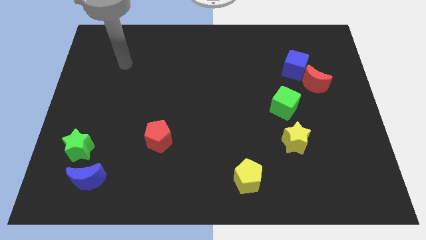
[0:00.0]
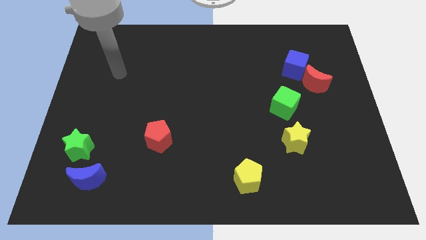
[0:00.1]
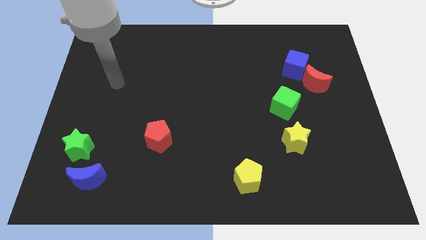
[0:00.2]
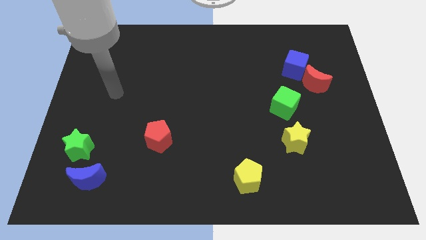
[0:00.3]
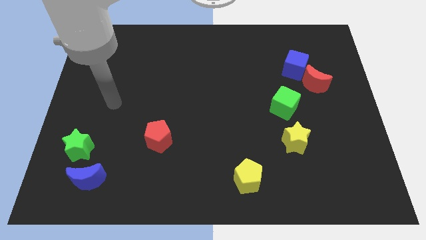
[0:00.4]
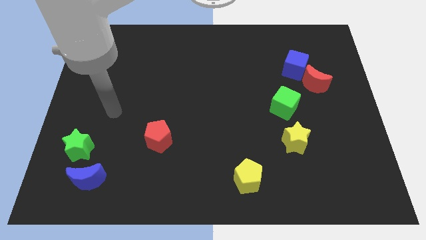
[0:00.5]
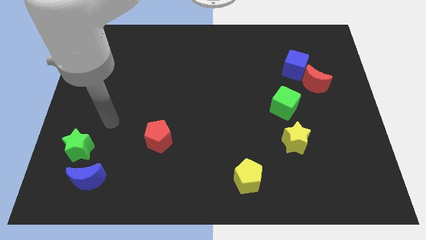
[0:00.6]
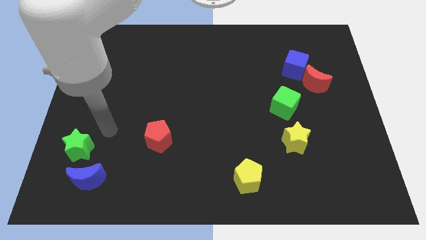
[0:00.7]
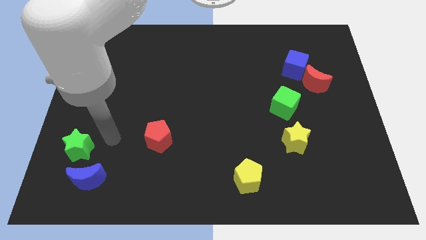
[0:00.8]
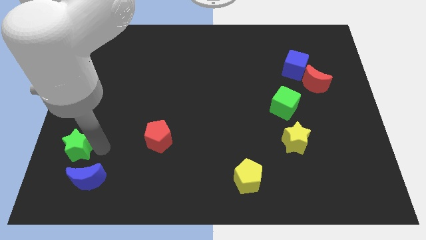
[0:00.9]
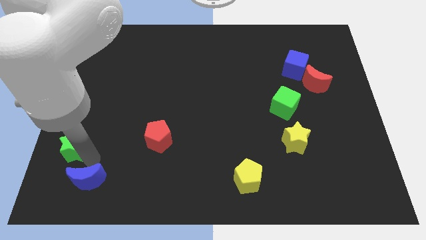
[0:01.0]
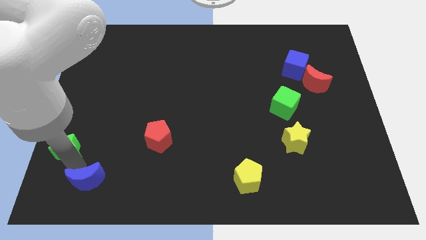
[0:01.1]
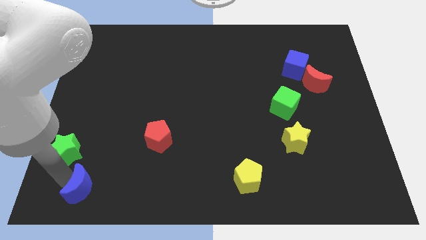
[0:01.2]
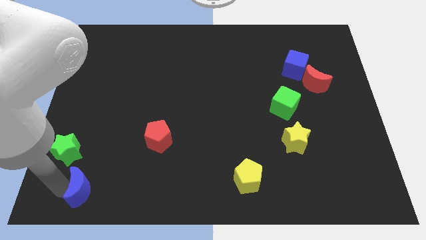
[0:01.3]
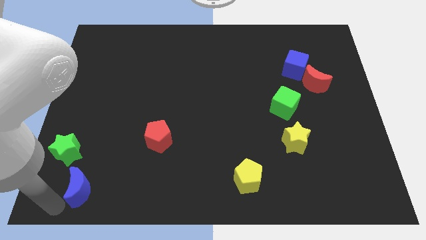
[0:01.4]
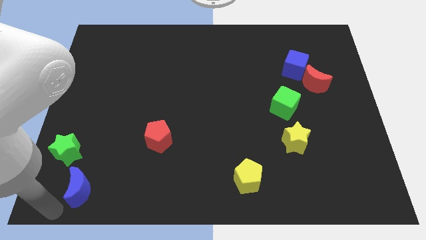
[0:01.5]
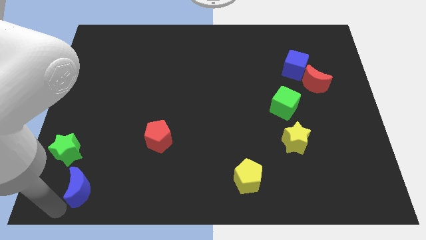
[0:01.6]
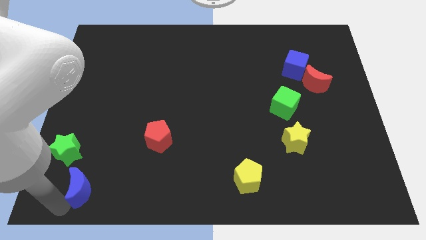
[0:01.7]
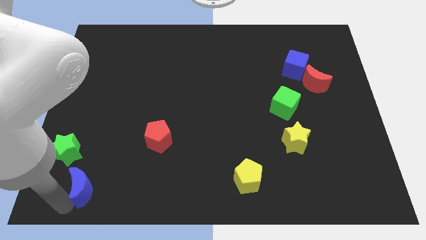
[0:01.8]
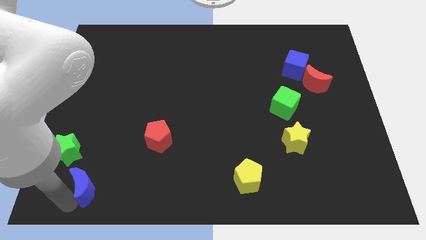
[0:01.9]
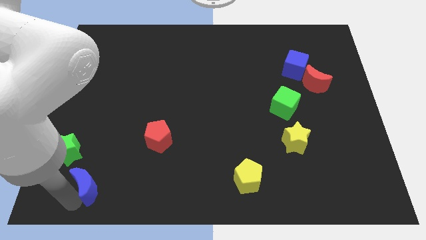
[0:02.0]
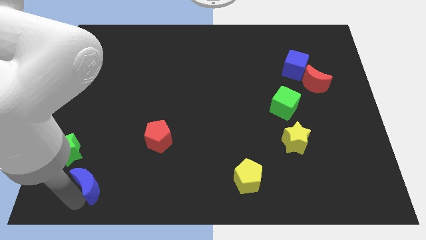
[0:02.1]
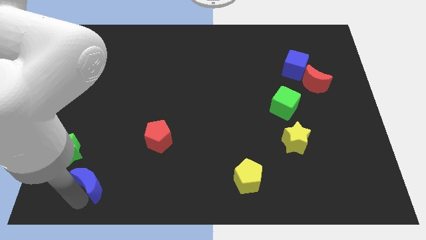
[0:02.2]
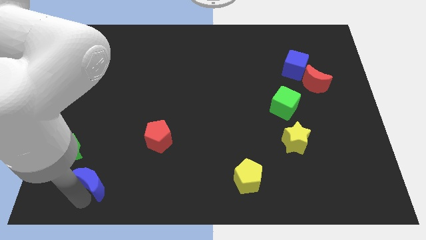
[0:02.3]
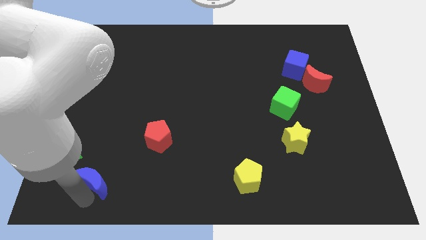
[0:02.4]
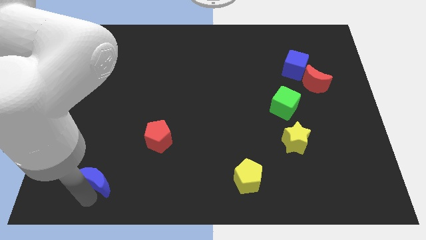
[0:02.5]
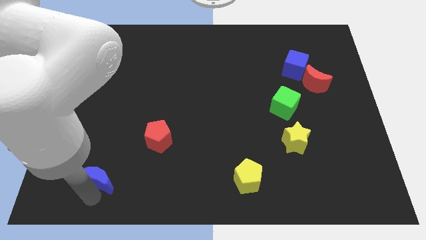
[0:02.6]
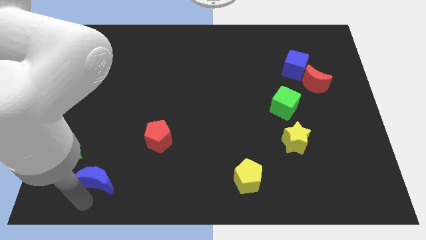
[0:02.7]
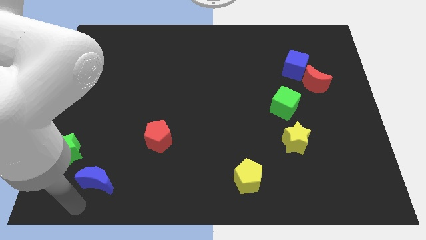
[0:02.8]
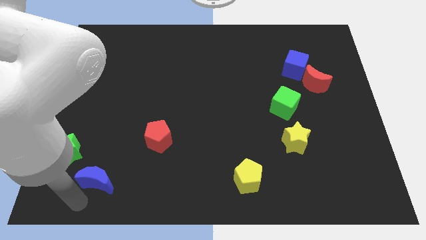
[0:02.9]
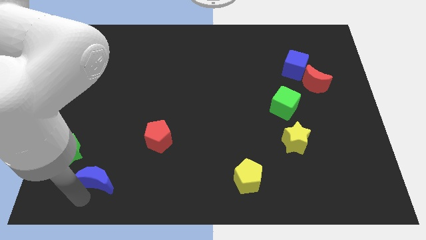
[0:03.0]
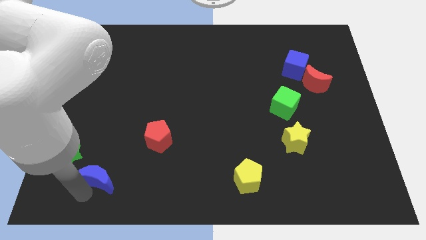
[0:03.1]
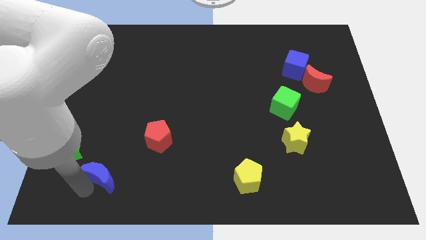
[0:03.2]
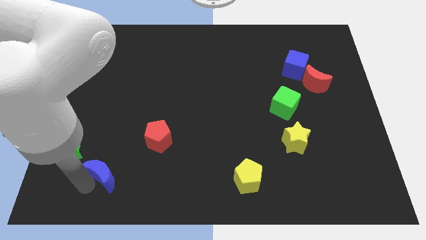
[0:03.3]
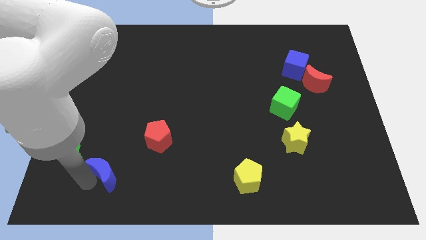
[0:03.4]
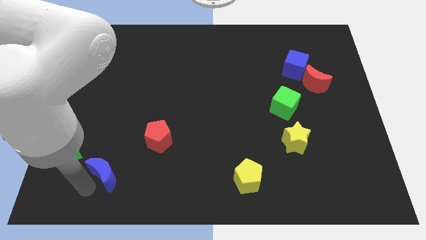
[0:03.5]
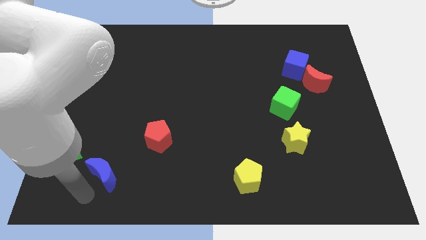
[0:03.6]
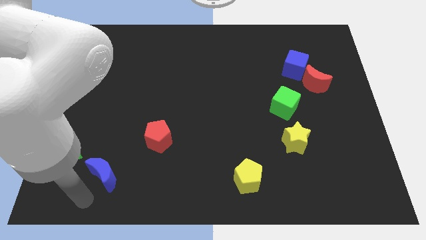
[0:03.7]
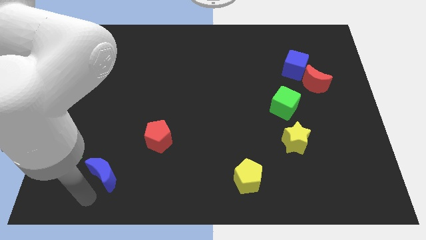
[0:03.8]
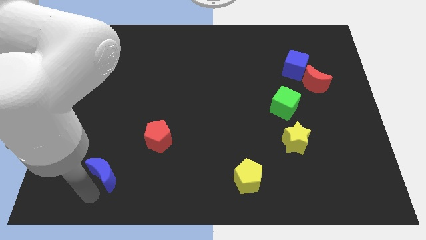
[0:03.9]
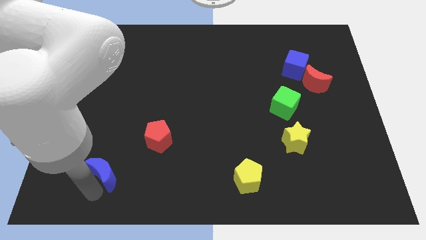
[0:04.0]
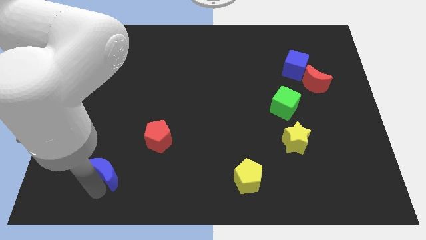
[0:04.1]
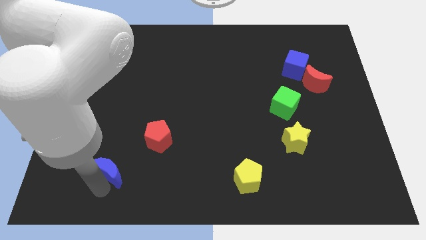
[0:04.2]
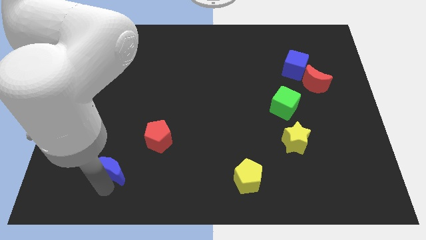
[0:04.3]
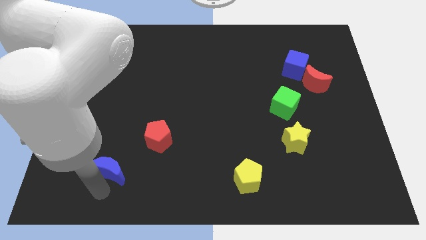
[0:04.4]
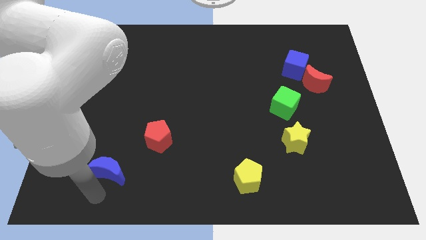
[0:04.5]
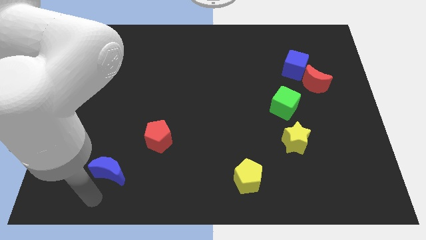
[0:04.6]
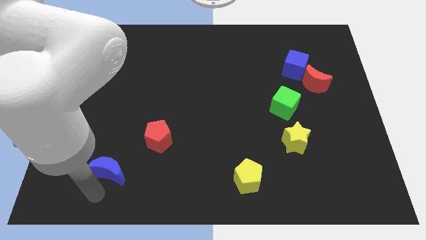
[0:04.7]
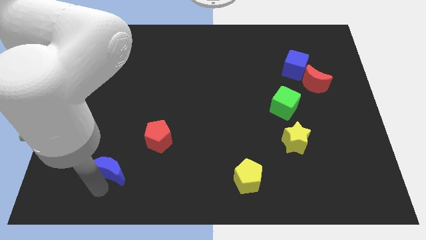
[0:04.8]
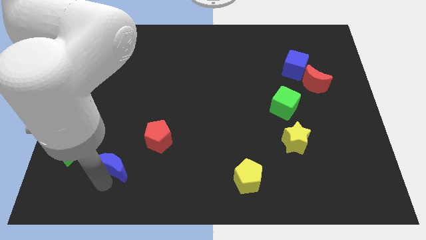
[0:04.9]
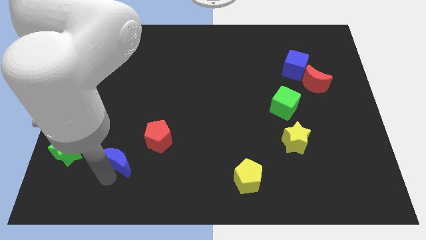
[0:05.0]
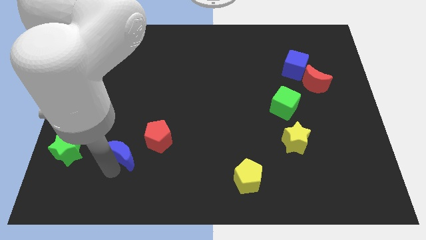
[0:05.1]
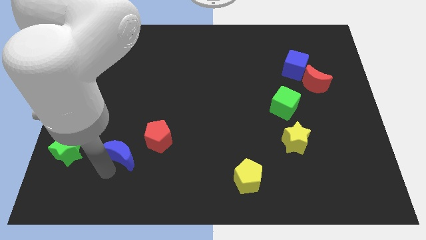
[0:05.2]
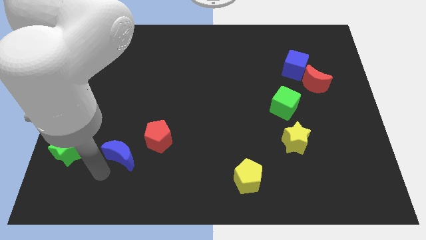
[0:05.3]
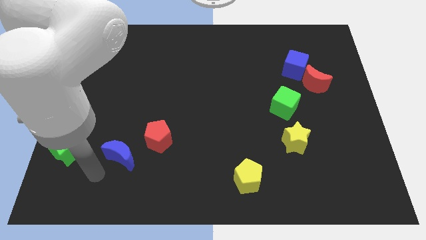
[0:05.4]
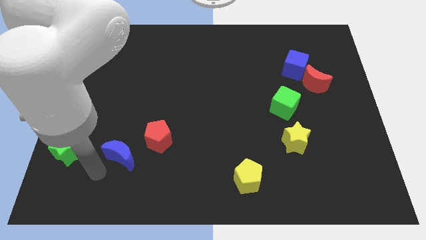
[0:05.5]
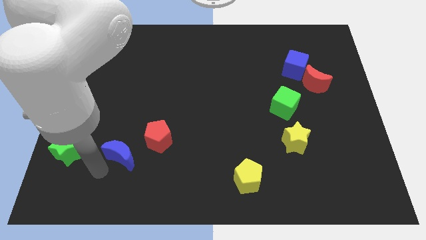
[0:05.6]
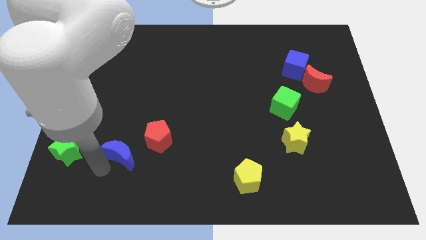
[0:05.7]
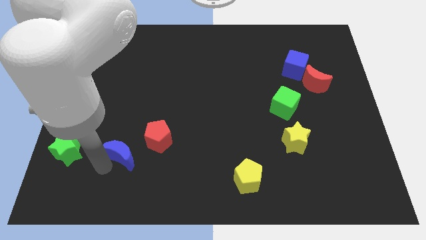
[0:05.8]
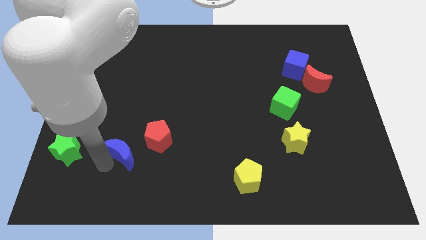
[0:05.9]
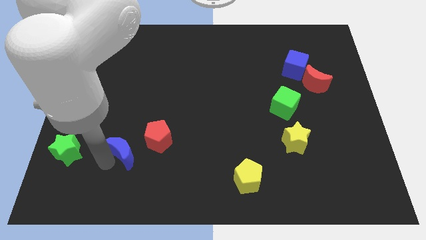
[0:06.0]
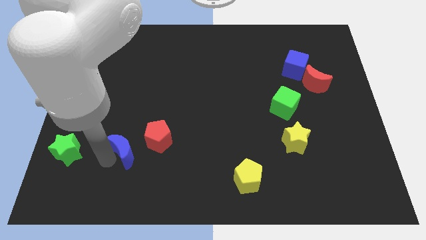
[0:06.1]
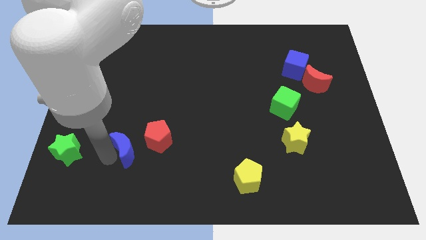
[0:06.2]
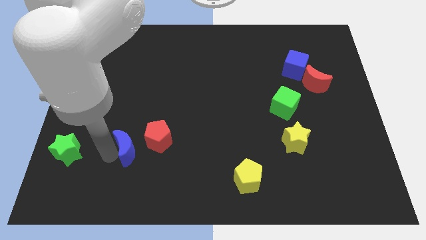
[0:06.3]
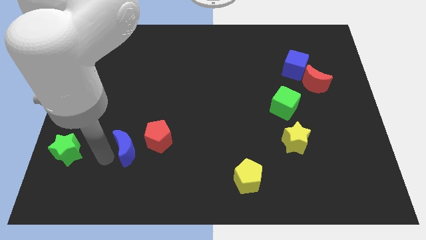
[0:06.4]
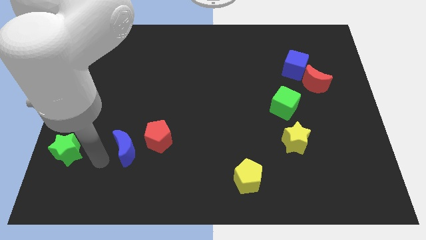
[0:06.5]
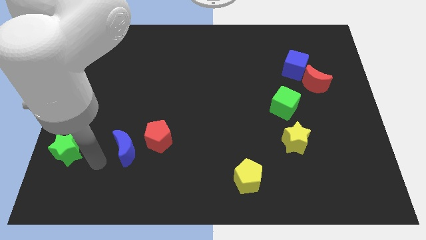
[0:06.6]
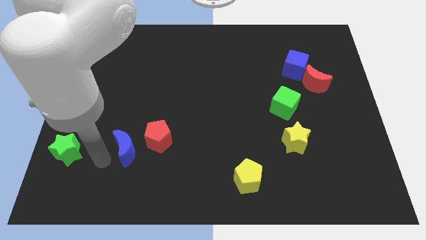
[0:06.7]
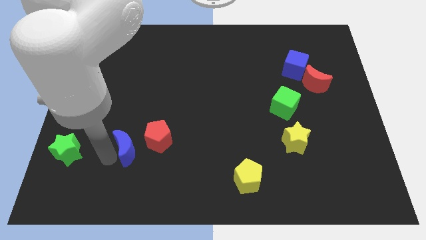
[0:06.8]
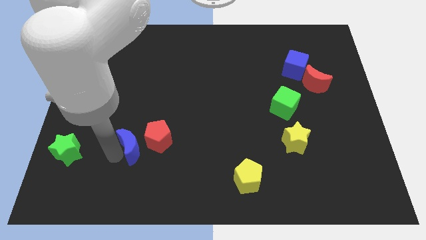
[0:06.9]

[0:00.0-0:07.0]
put the blue moon next to the red pentagon
